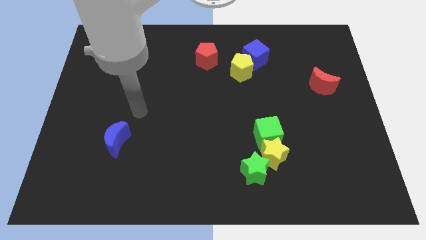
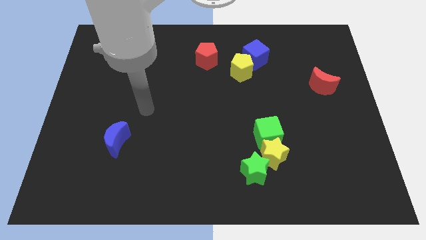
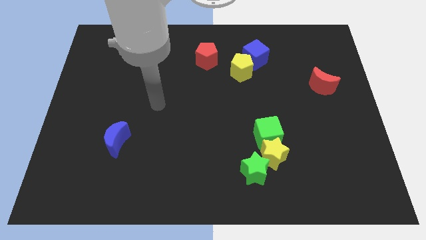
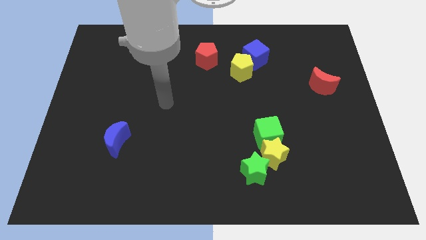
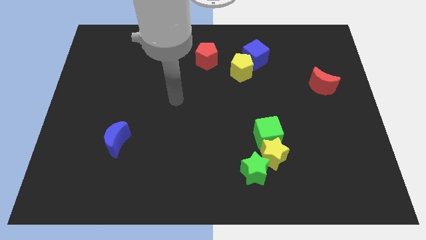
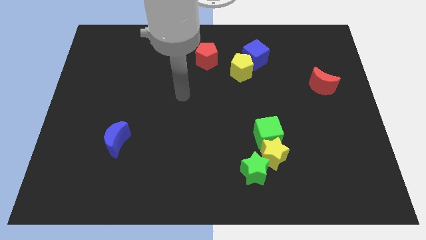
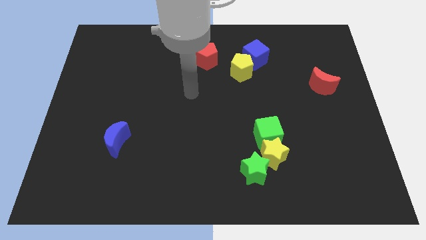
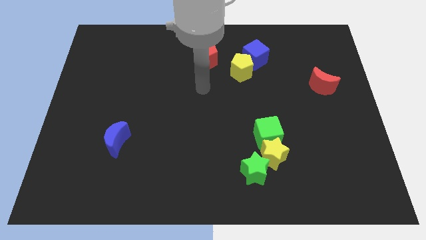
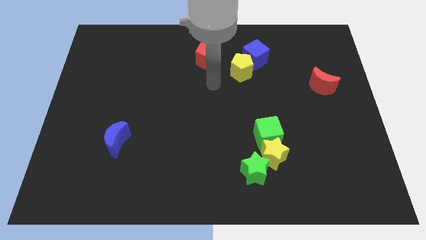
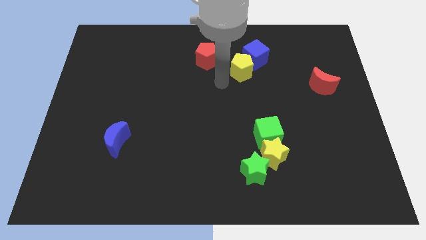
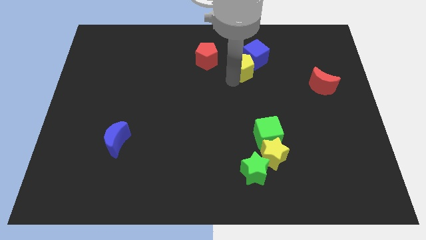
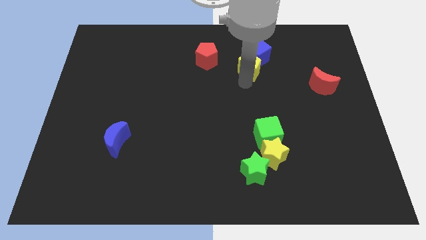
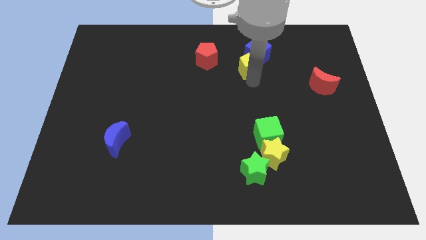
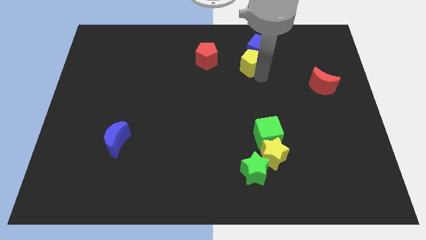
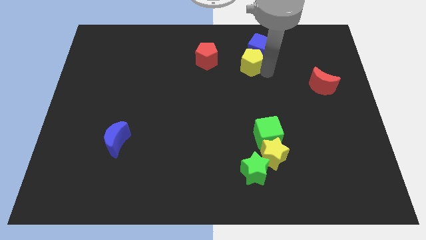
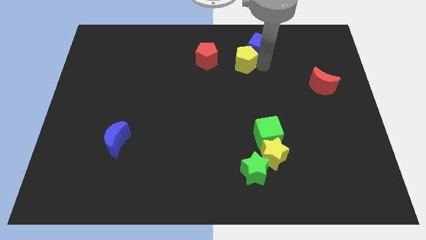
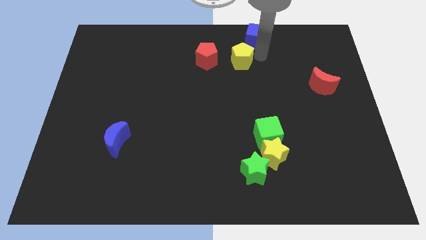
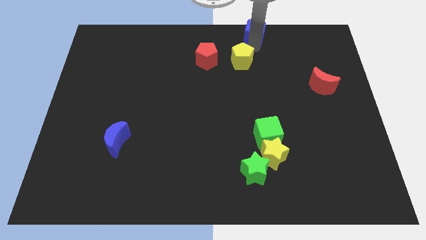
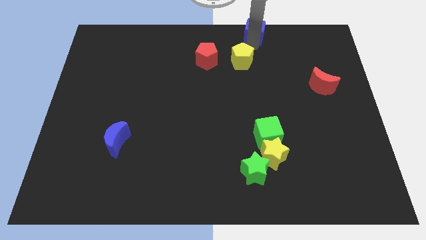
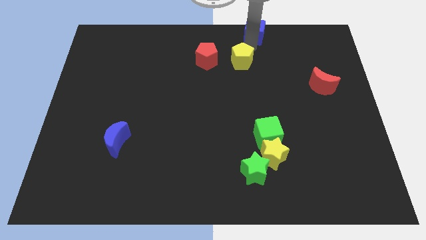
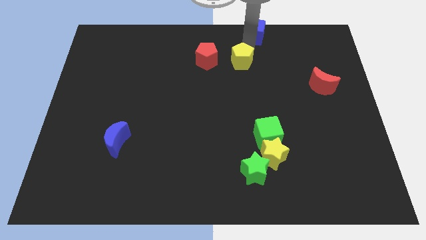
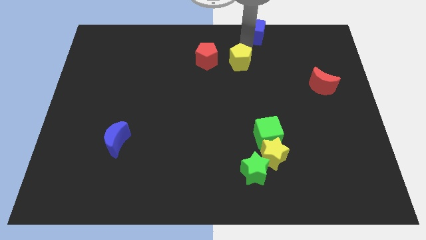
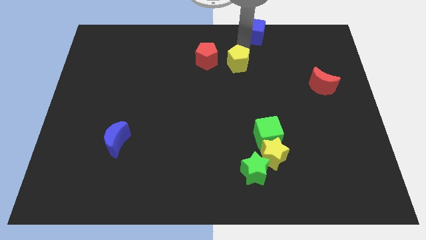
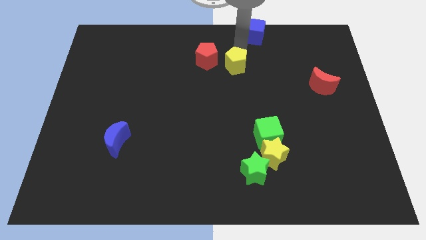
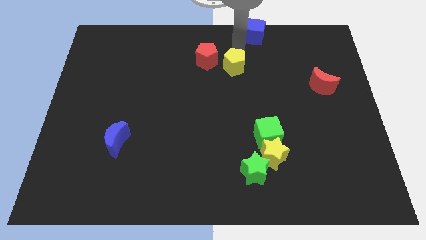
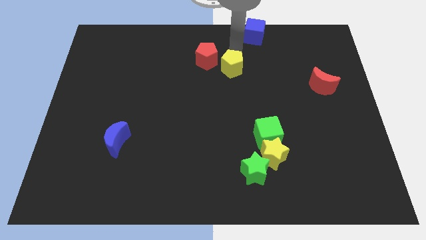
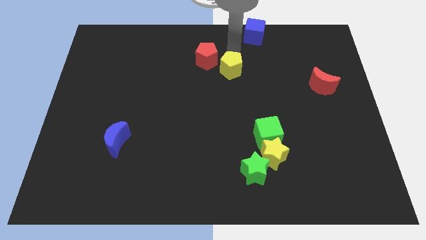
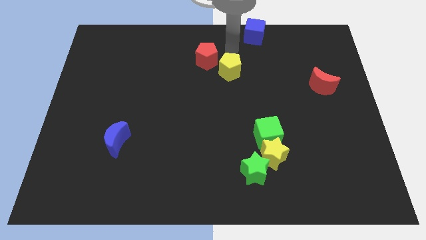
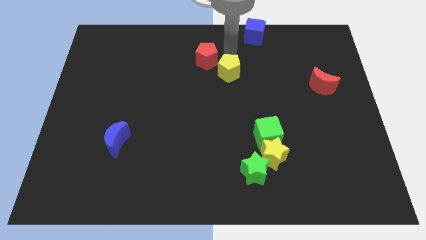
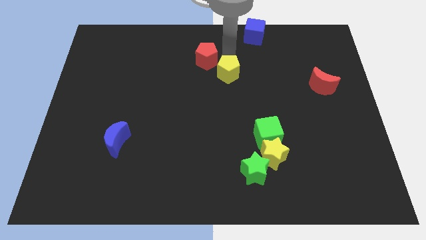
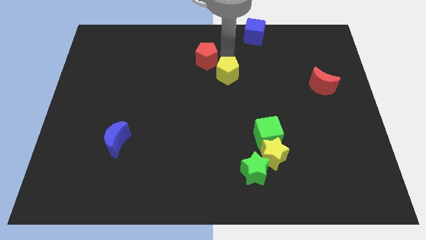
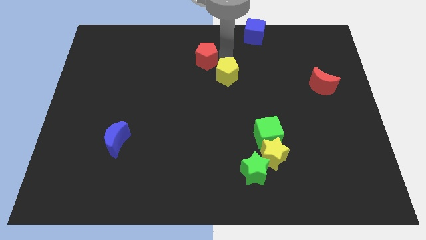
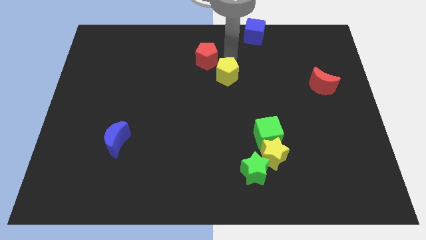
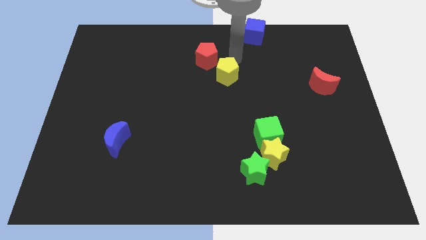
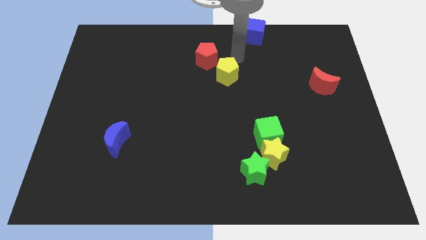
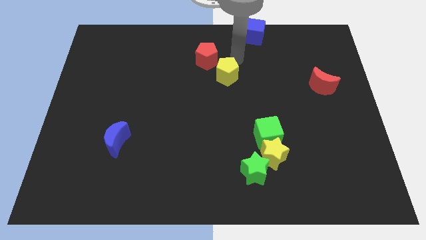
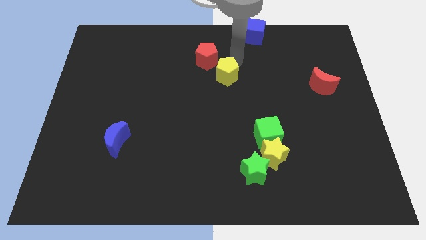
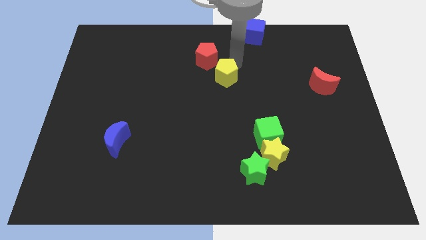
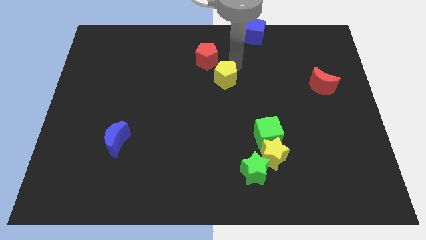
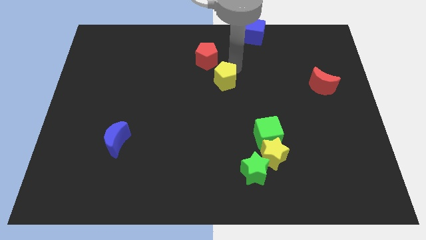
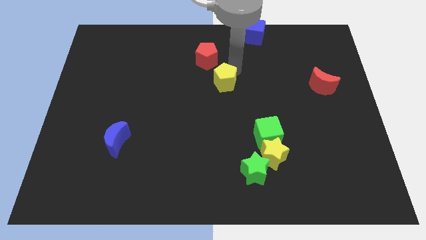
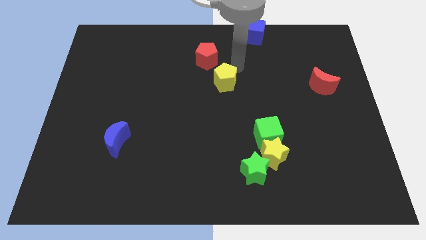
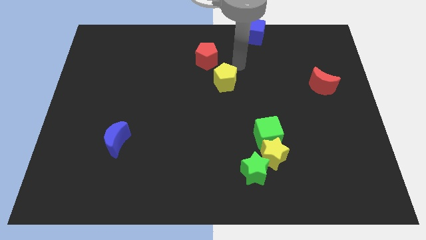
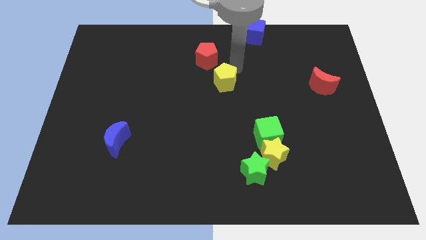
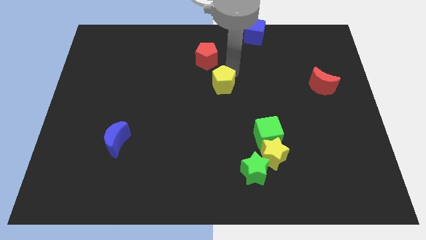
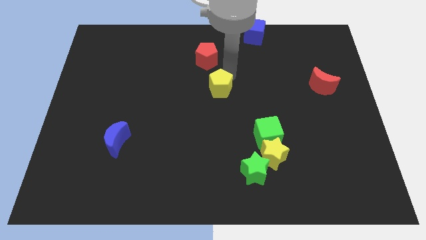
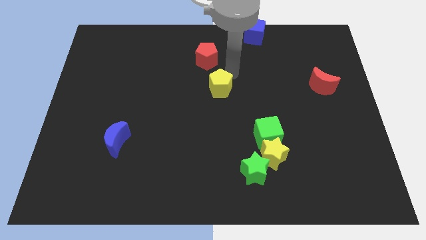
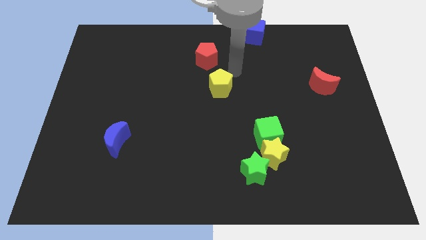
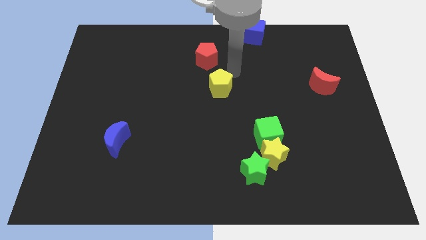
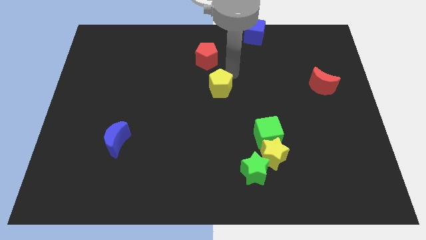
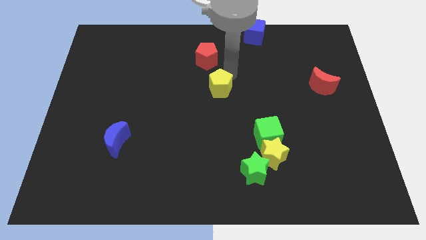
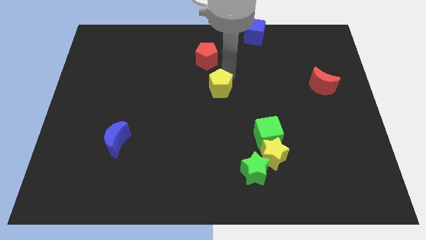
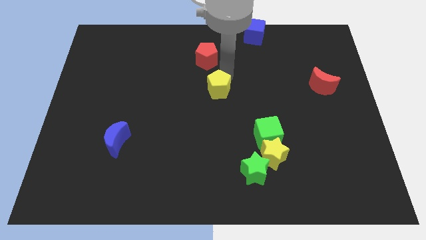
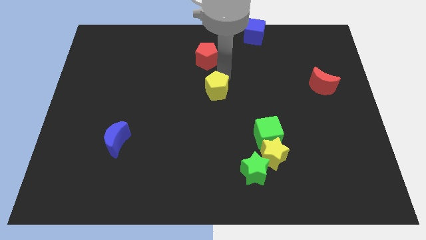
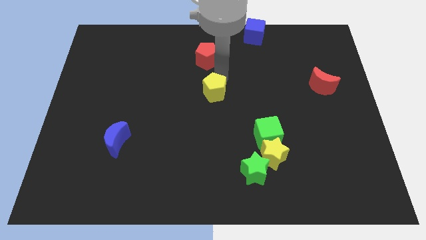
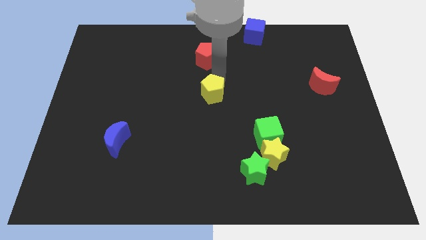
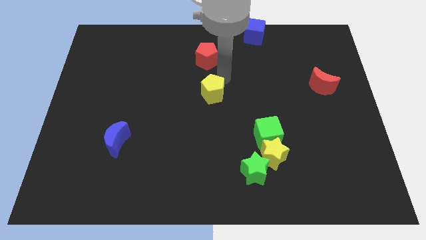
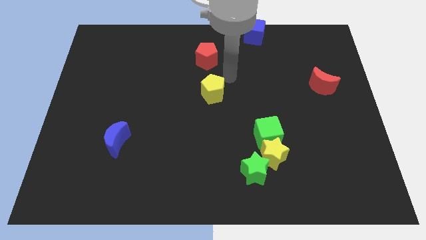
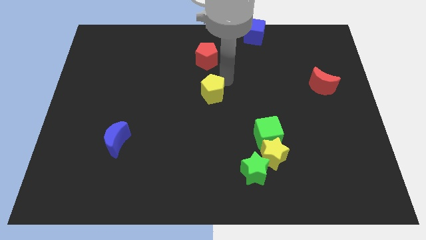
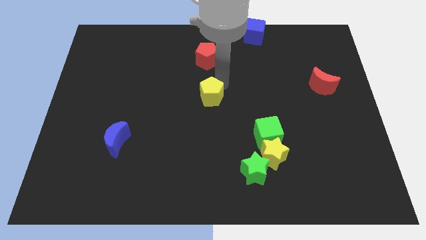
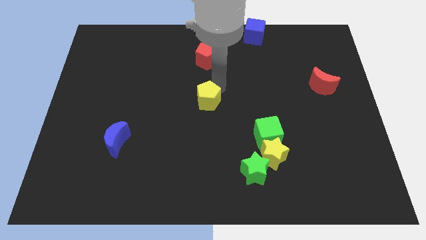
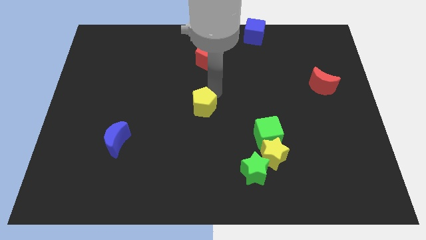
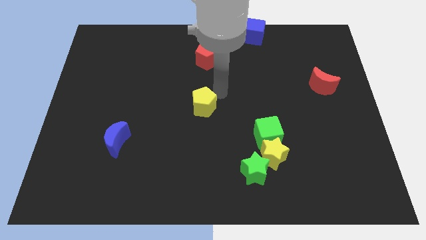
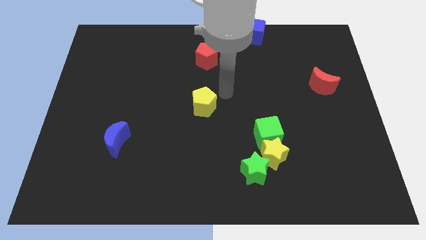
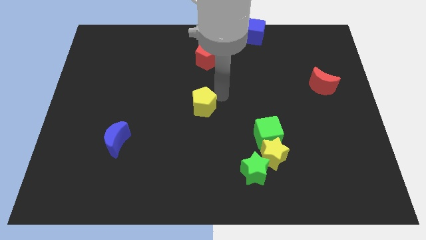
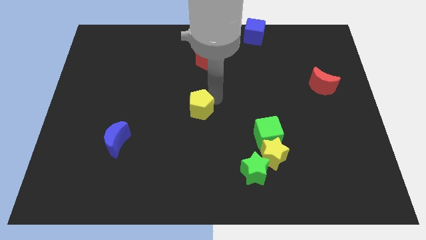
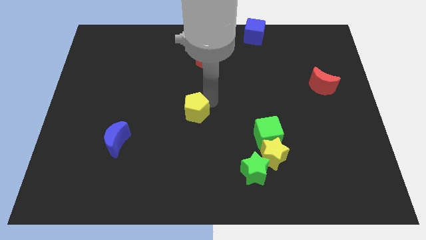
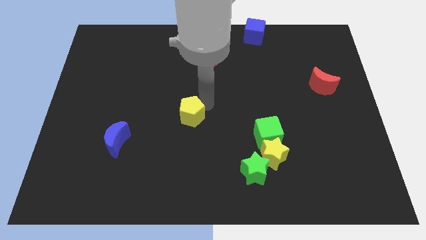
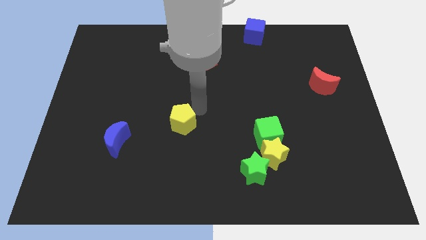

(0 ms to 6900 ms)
slide the yellow pentagon down and then to the left

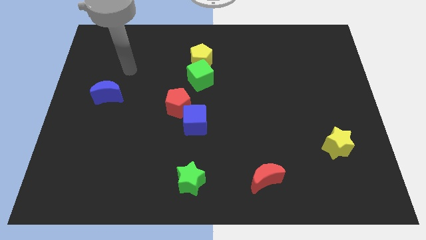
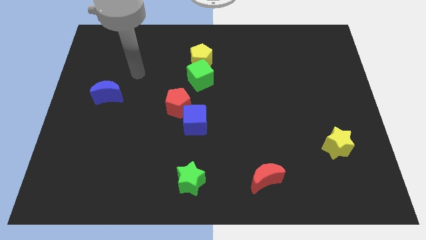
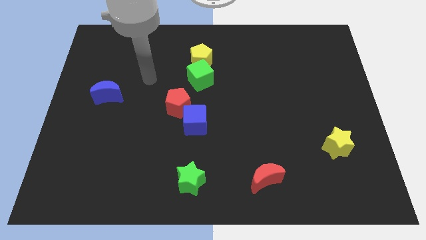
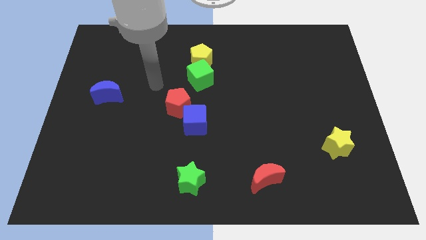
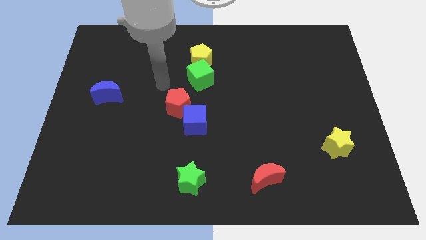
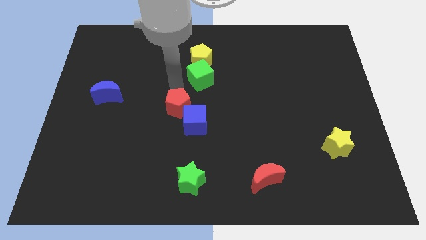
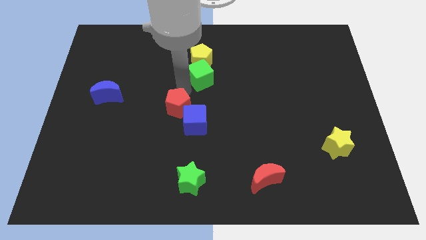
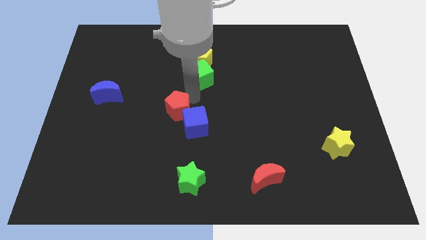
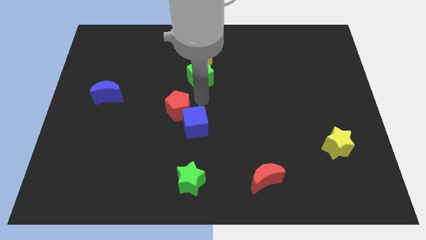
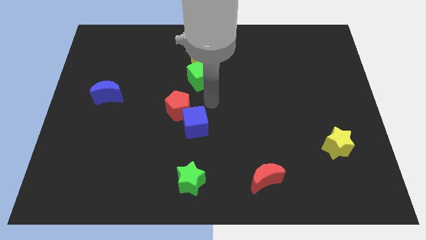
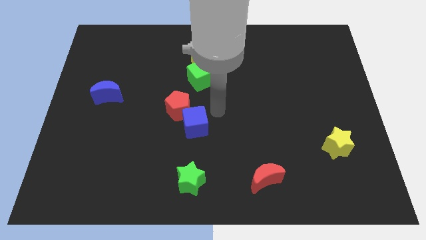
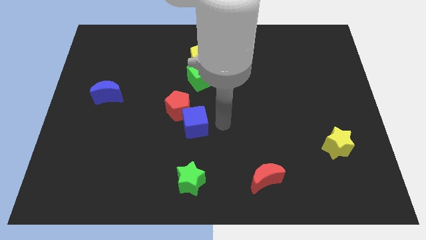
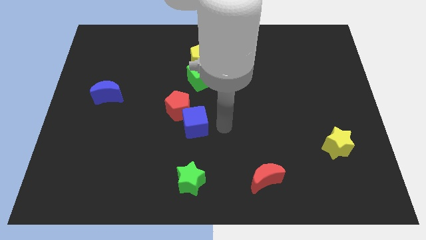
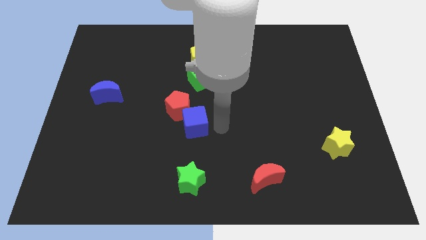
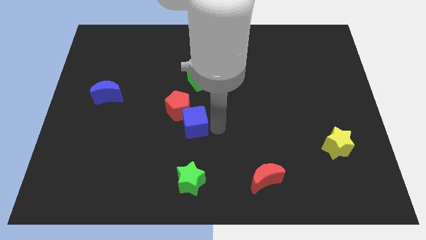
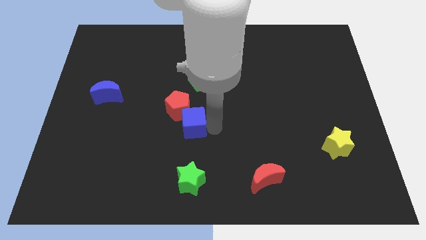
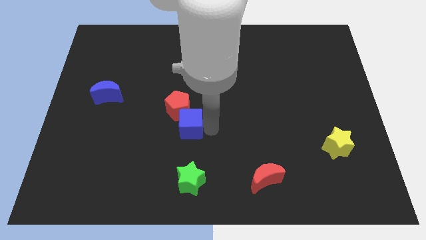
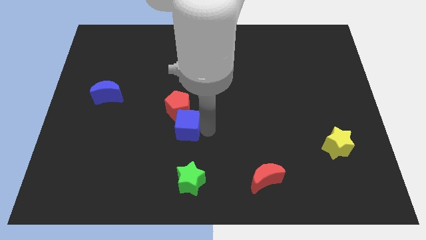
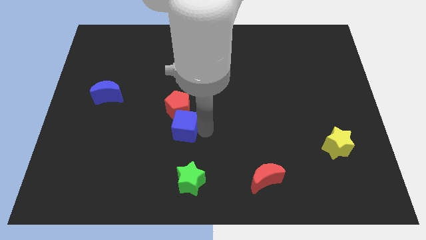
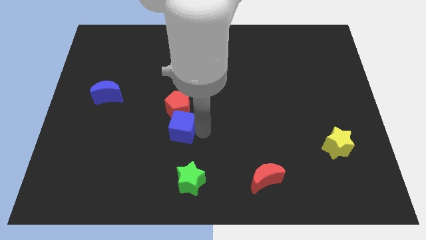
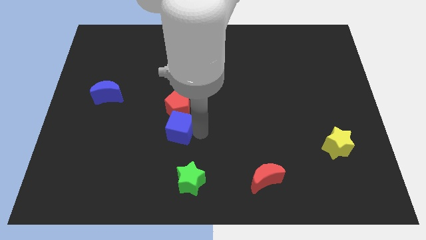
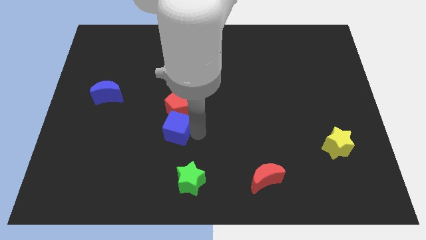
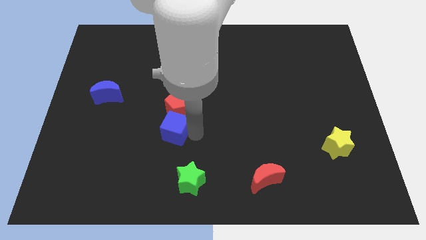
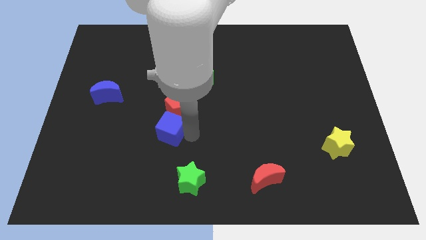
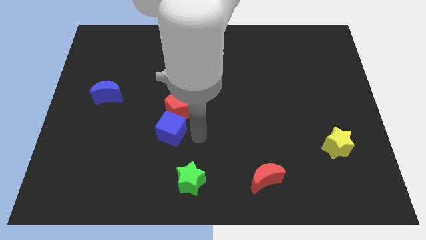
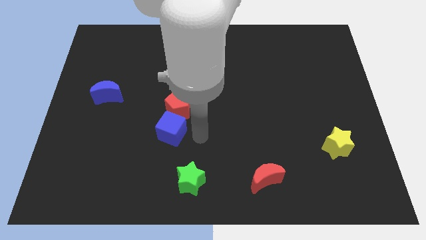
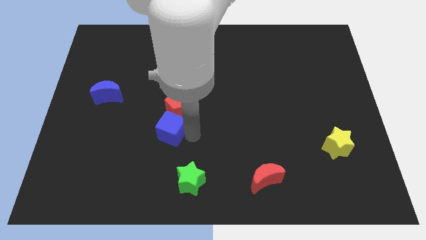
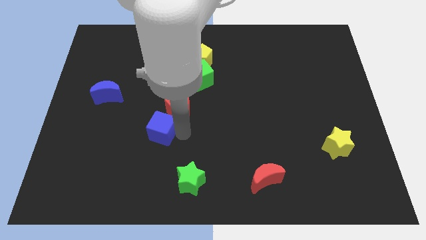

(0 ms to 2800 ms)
push the blue cube left somewhat
